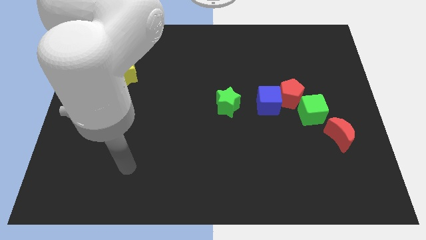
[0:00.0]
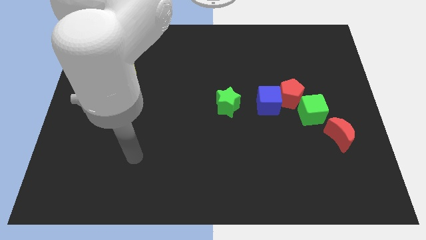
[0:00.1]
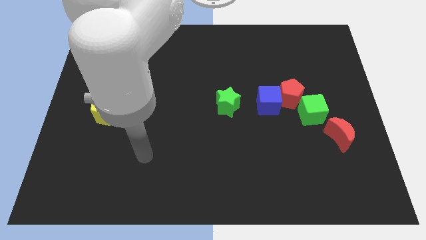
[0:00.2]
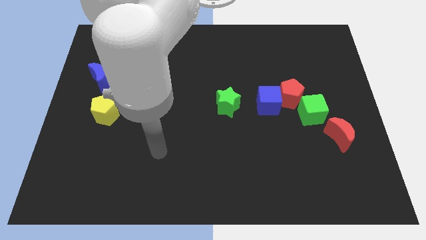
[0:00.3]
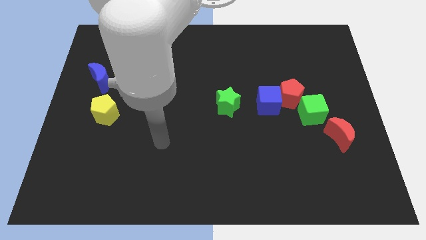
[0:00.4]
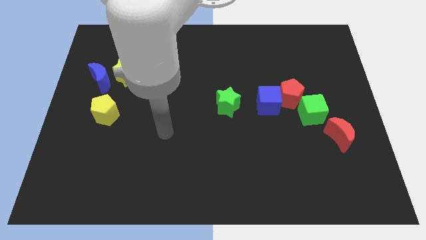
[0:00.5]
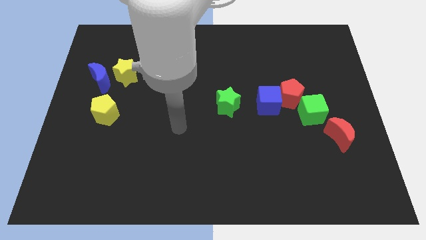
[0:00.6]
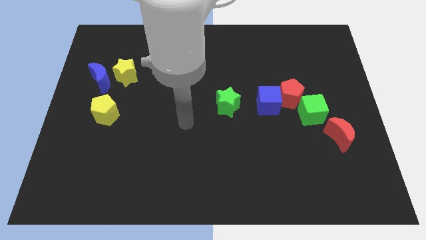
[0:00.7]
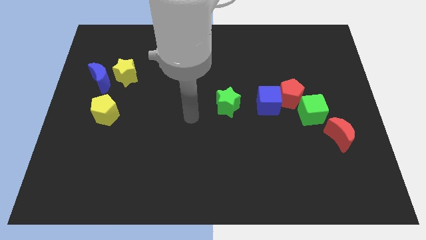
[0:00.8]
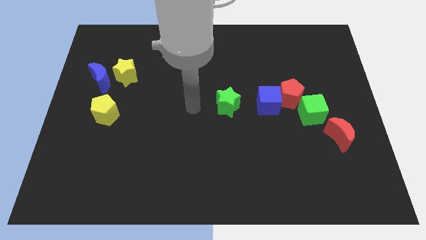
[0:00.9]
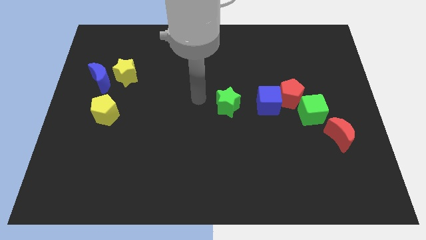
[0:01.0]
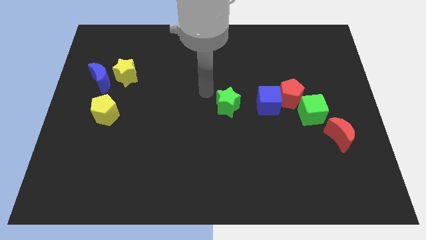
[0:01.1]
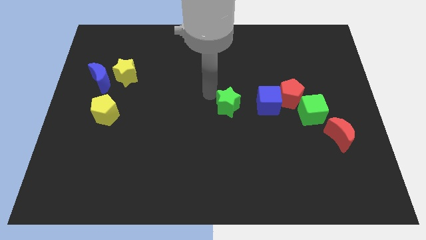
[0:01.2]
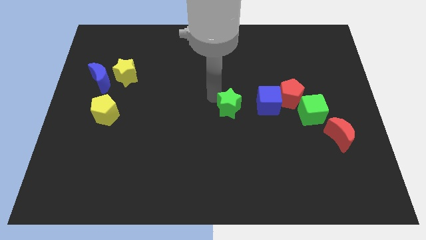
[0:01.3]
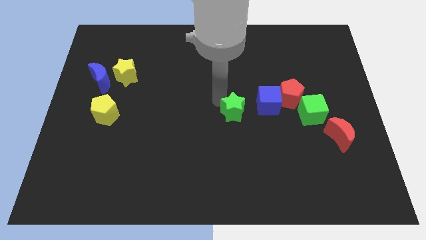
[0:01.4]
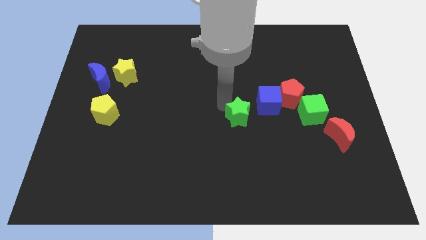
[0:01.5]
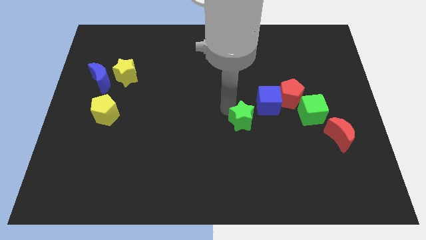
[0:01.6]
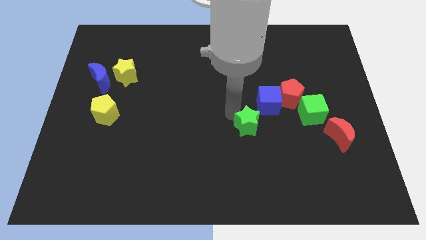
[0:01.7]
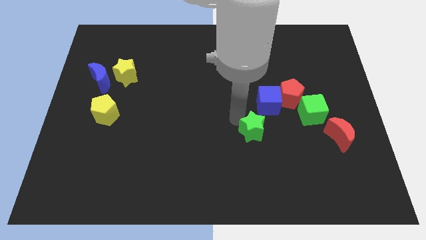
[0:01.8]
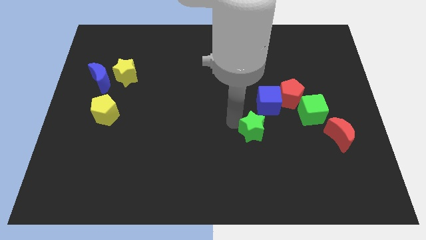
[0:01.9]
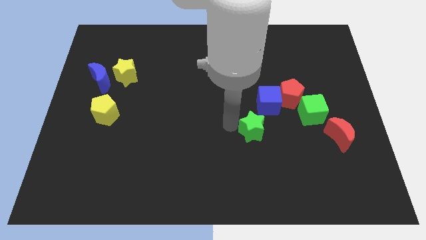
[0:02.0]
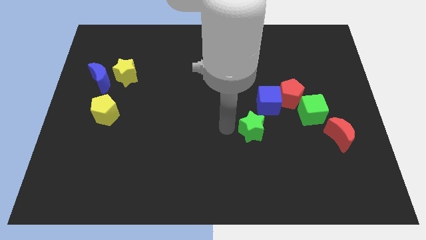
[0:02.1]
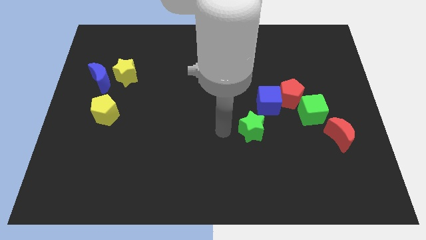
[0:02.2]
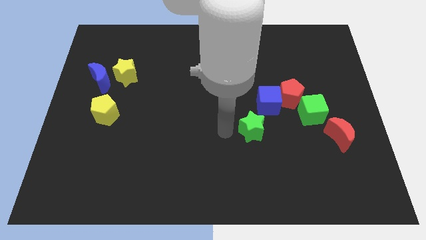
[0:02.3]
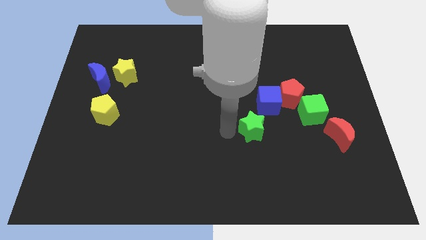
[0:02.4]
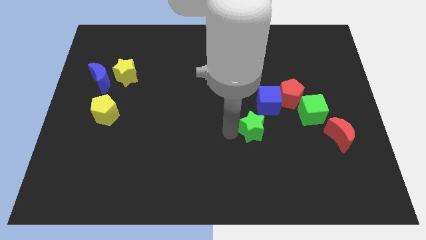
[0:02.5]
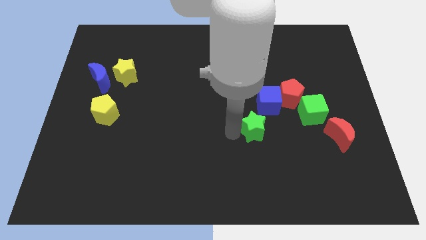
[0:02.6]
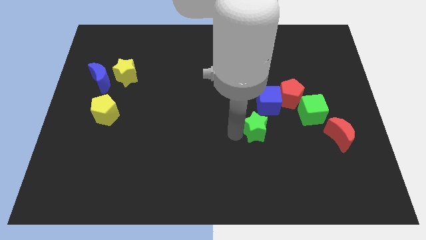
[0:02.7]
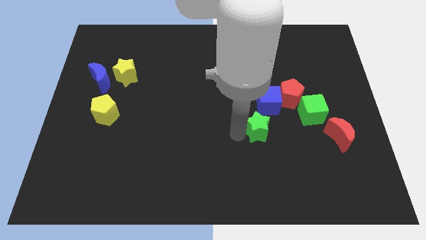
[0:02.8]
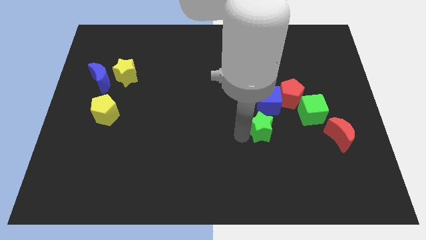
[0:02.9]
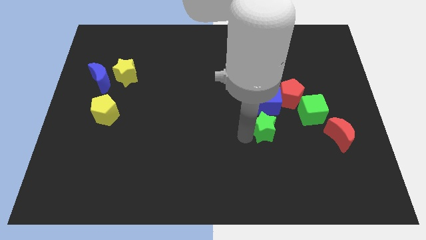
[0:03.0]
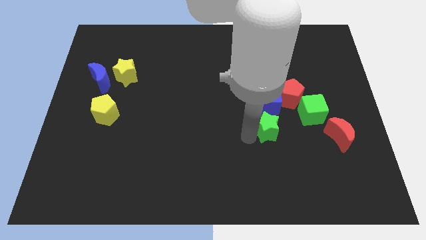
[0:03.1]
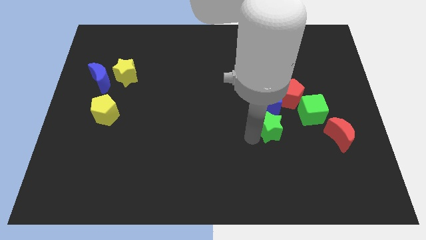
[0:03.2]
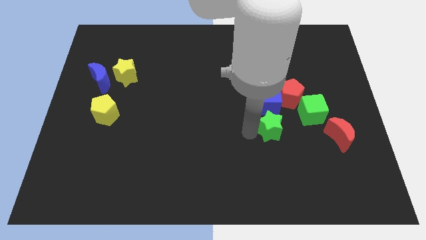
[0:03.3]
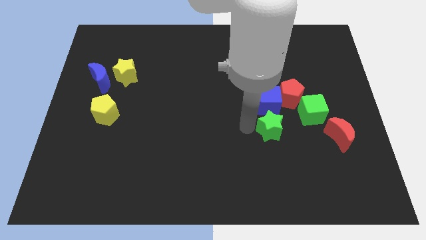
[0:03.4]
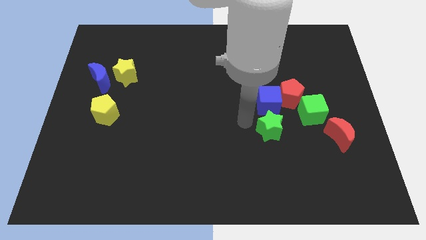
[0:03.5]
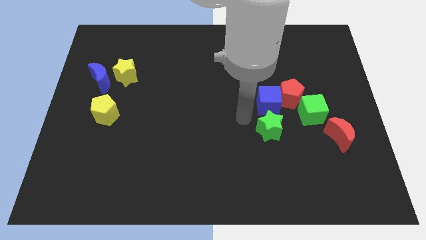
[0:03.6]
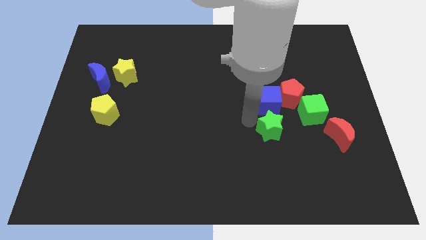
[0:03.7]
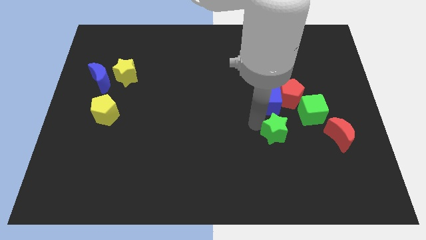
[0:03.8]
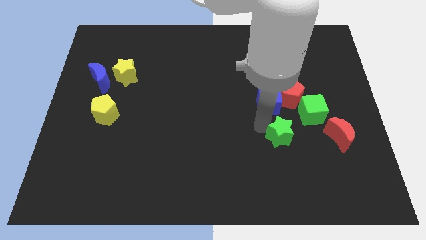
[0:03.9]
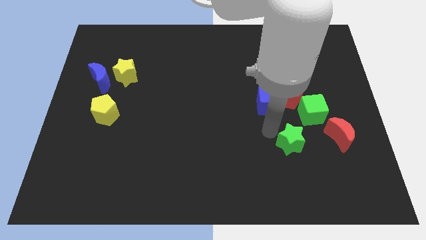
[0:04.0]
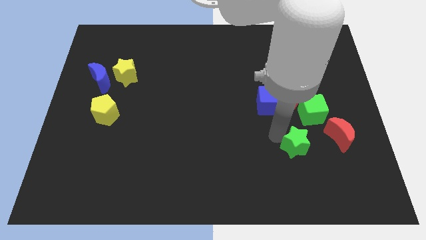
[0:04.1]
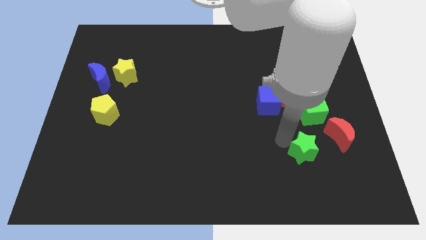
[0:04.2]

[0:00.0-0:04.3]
put the green star to the bottom of the green cube

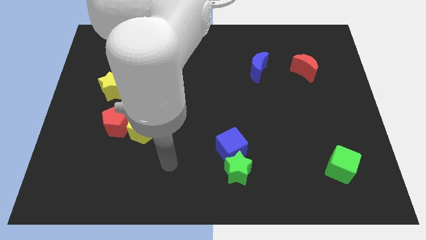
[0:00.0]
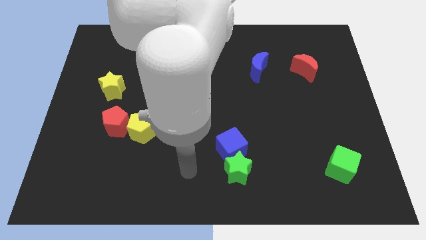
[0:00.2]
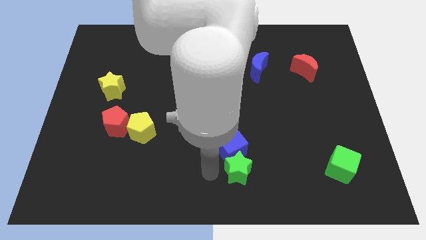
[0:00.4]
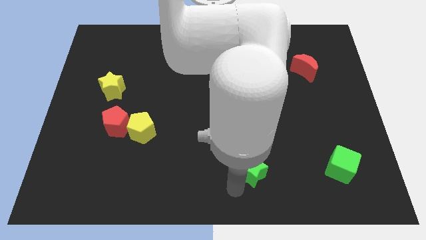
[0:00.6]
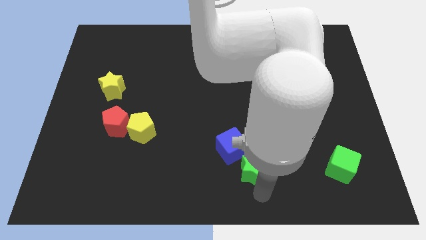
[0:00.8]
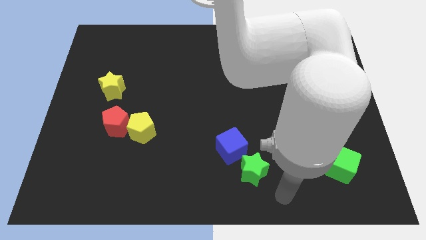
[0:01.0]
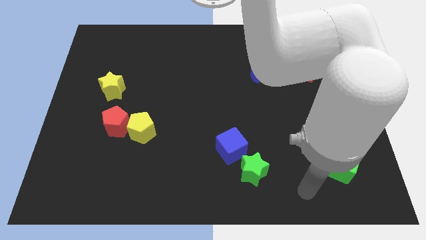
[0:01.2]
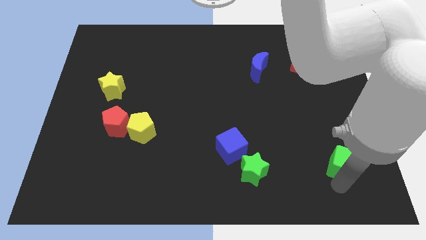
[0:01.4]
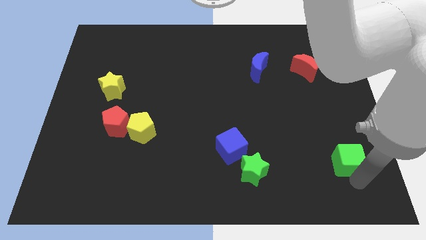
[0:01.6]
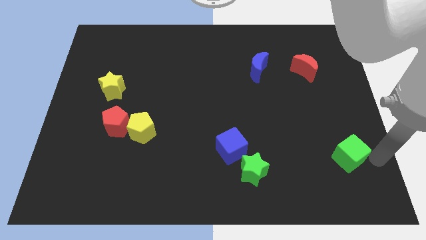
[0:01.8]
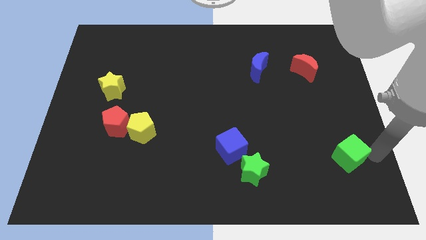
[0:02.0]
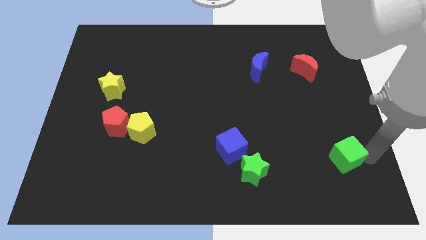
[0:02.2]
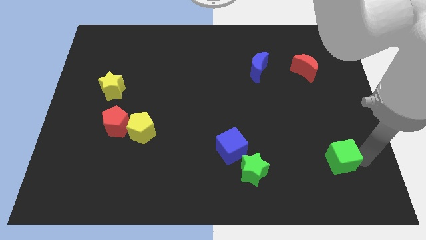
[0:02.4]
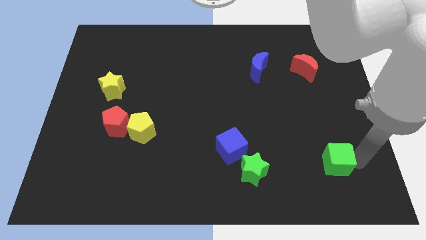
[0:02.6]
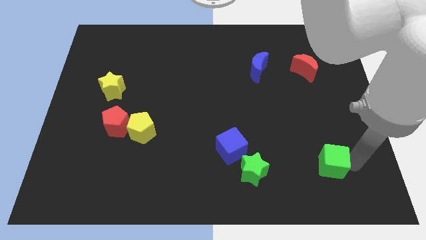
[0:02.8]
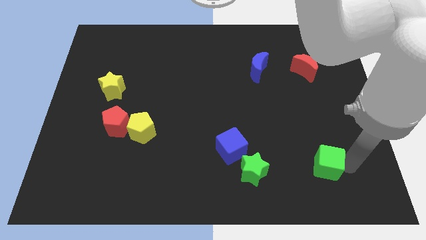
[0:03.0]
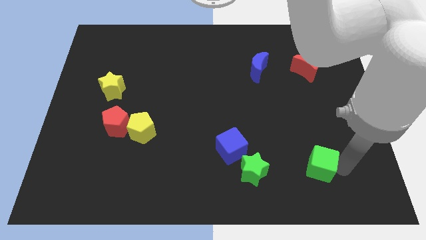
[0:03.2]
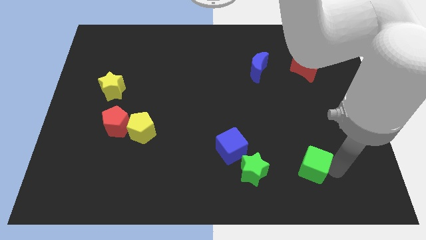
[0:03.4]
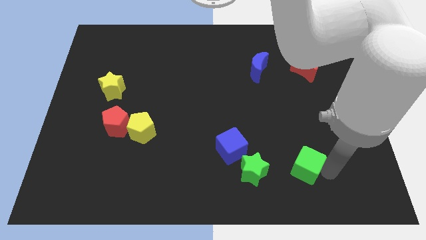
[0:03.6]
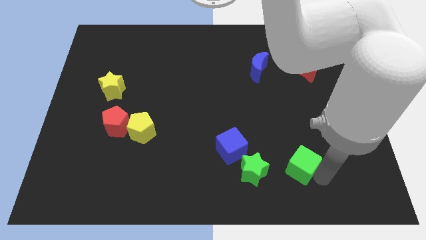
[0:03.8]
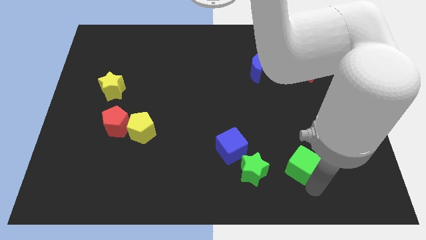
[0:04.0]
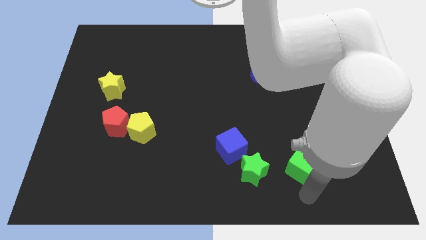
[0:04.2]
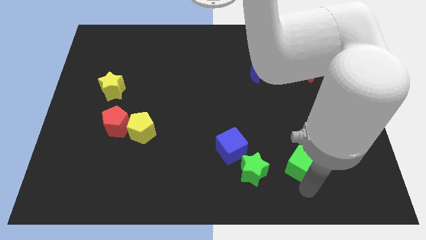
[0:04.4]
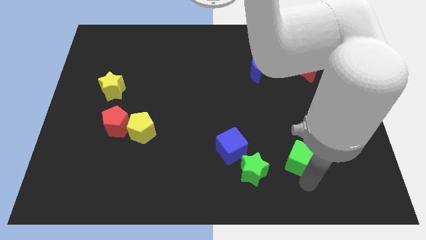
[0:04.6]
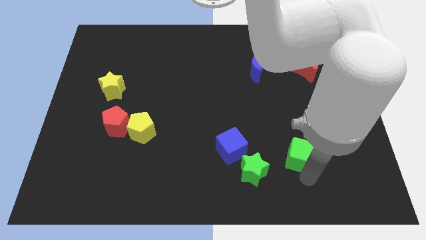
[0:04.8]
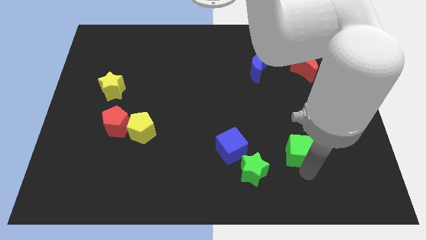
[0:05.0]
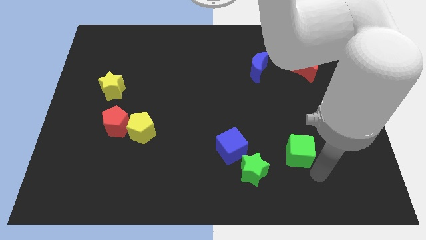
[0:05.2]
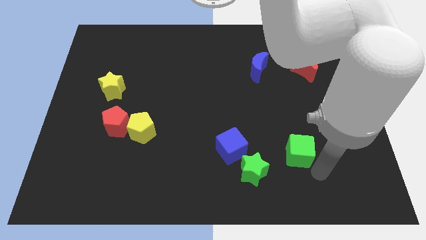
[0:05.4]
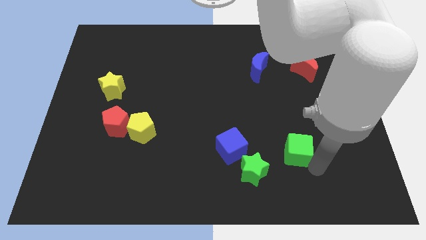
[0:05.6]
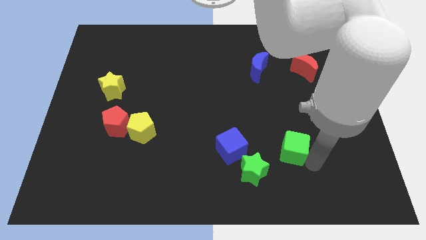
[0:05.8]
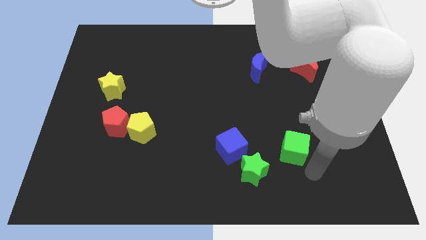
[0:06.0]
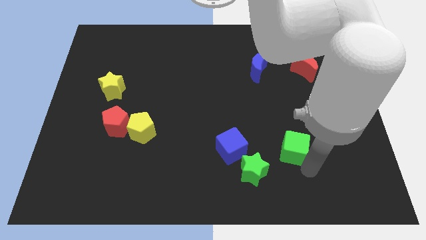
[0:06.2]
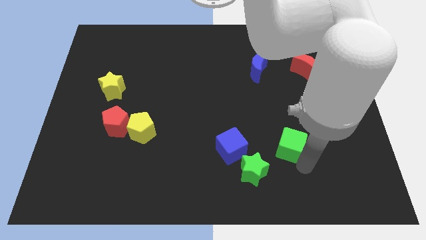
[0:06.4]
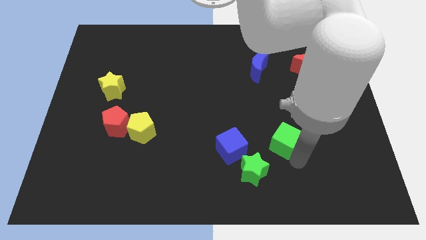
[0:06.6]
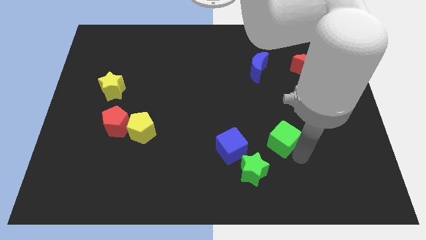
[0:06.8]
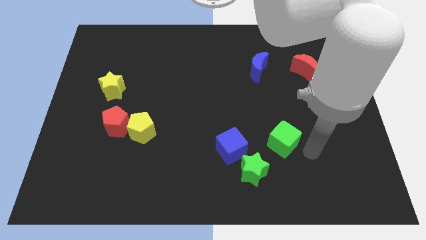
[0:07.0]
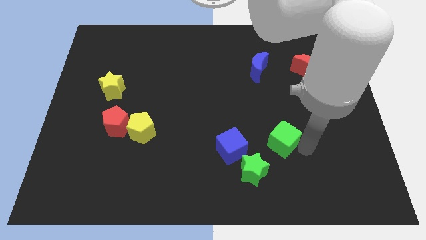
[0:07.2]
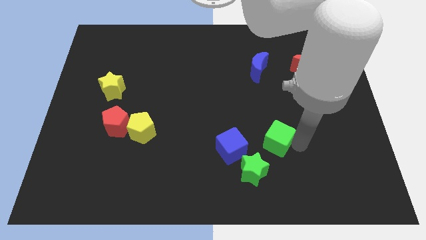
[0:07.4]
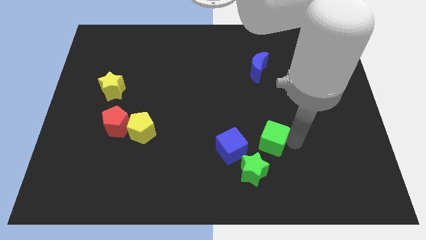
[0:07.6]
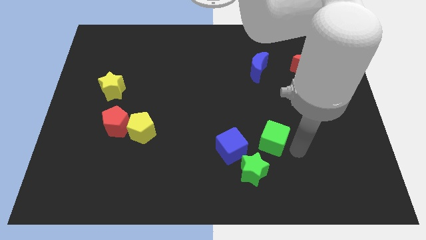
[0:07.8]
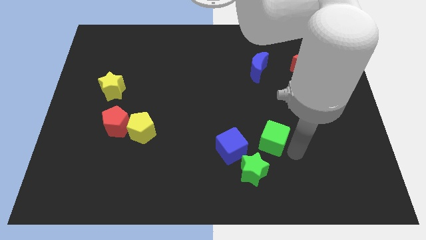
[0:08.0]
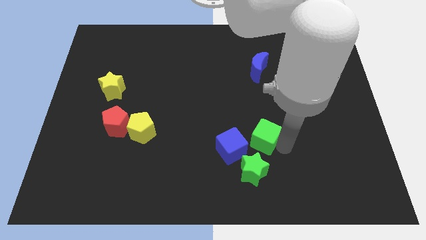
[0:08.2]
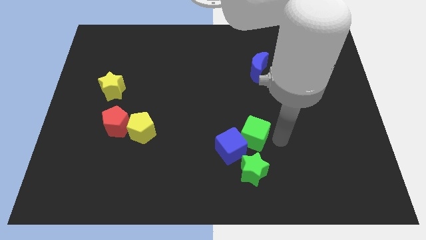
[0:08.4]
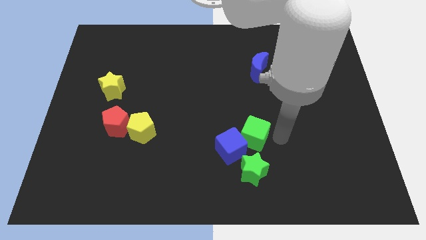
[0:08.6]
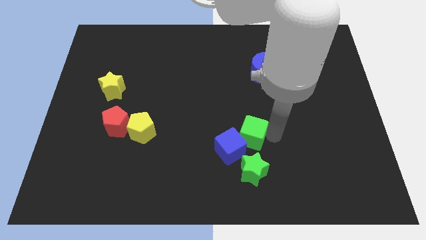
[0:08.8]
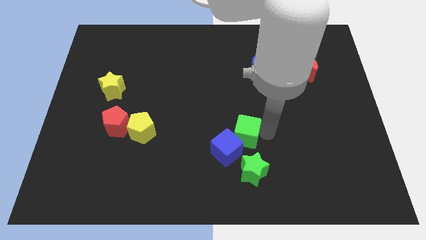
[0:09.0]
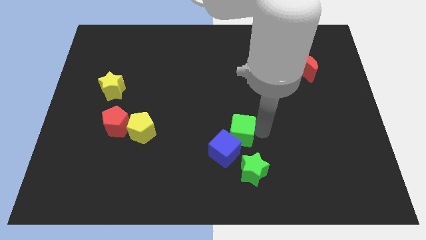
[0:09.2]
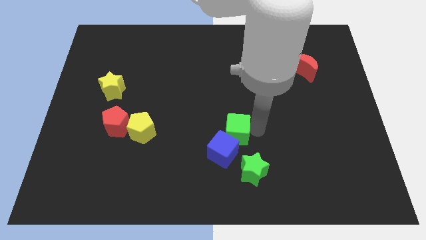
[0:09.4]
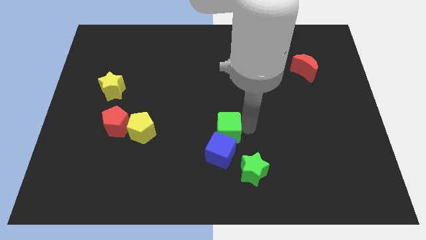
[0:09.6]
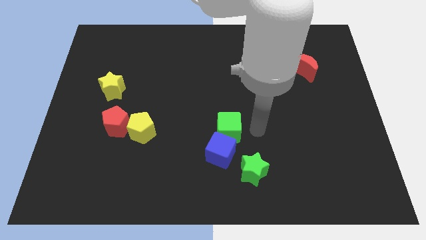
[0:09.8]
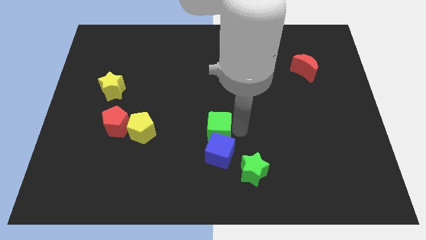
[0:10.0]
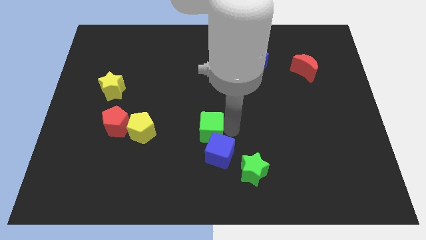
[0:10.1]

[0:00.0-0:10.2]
slide the green cube right of the yellow pentagon
